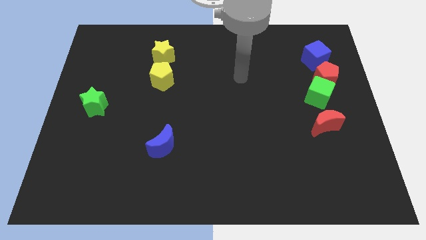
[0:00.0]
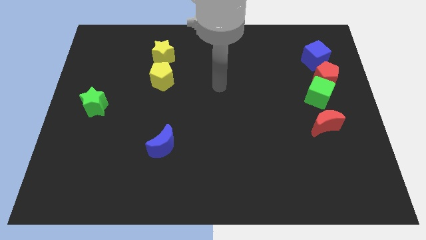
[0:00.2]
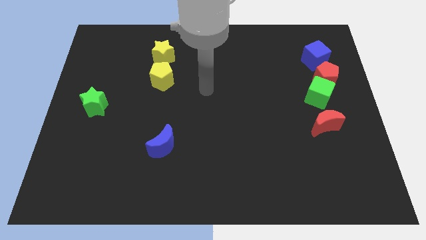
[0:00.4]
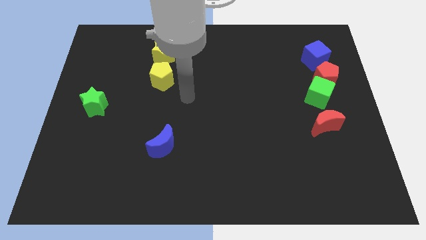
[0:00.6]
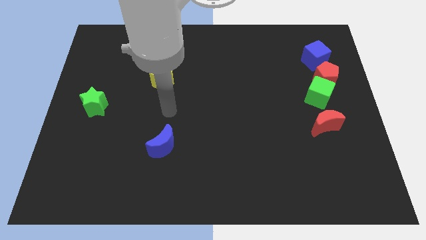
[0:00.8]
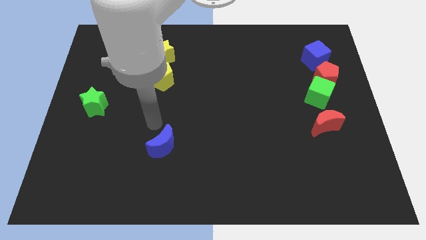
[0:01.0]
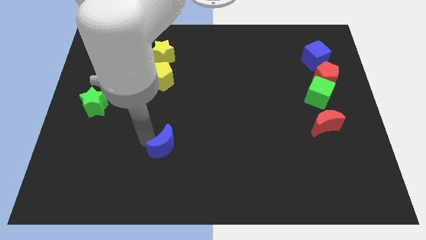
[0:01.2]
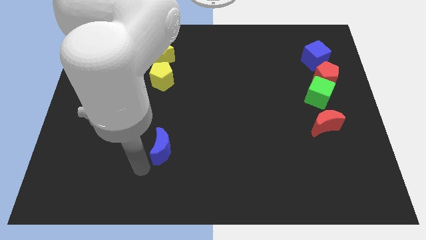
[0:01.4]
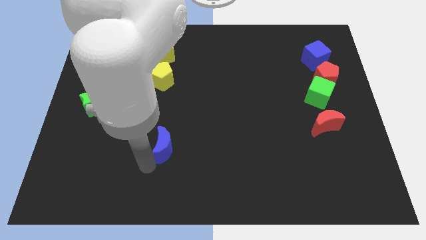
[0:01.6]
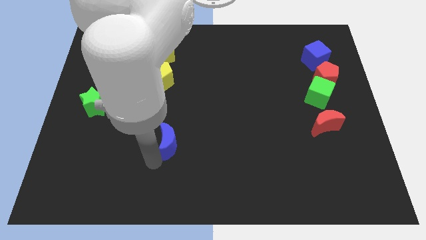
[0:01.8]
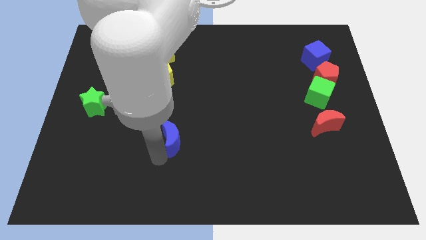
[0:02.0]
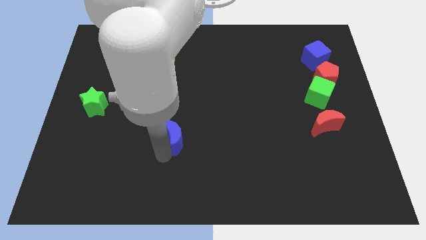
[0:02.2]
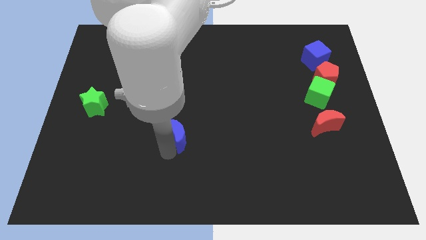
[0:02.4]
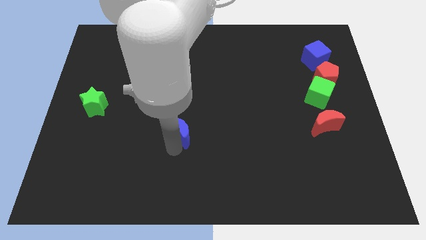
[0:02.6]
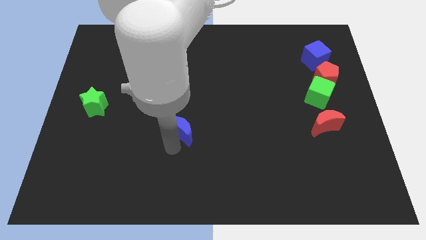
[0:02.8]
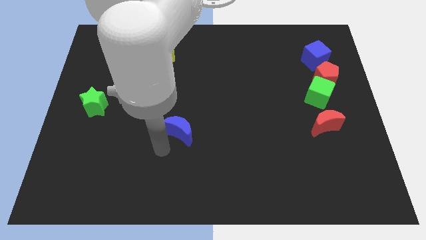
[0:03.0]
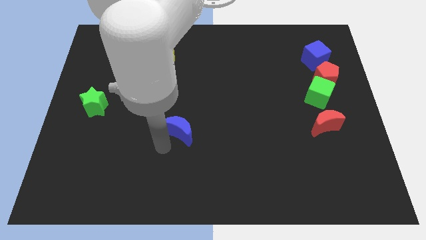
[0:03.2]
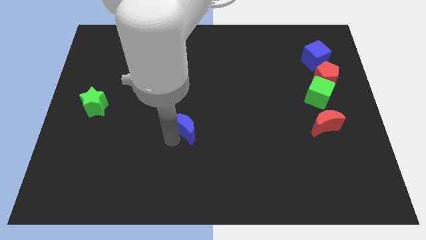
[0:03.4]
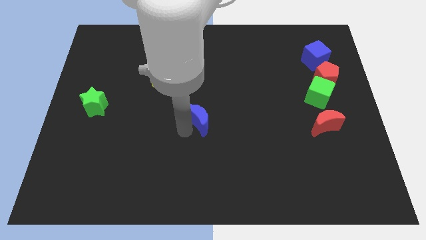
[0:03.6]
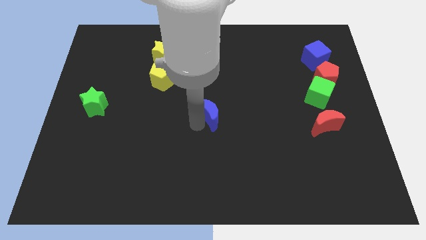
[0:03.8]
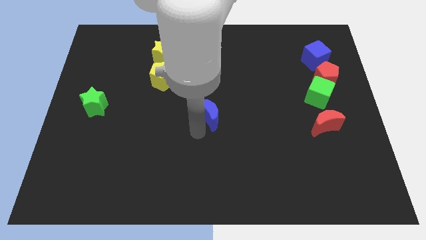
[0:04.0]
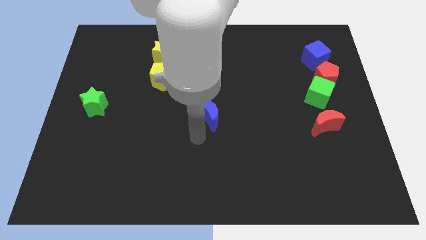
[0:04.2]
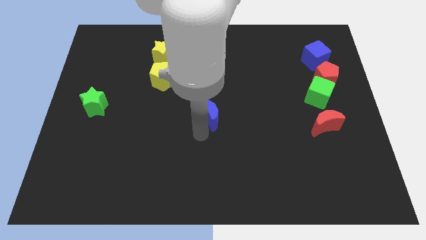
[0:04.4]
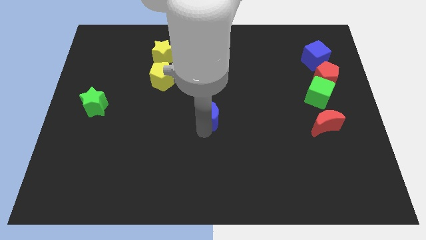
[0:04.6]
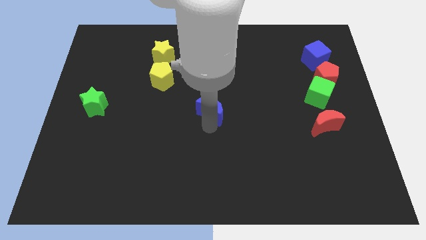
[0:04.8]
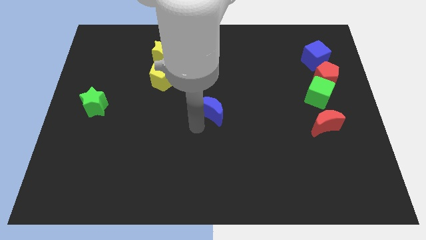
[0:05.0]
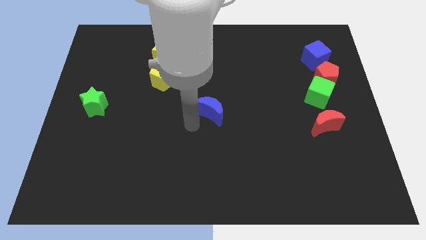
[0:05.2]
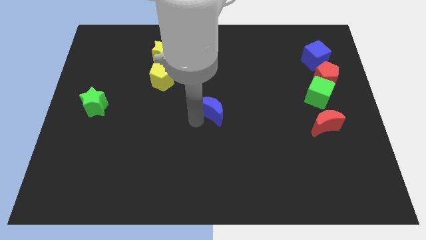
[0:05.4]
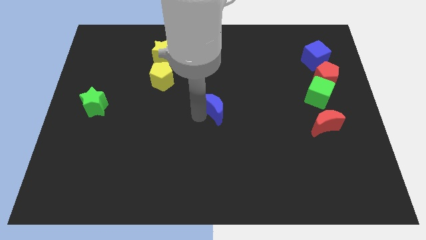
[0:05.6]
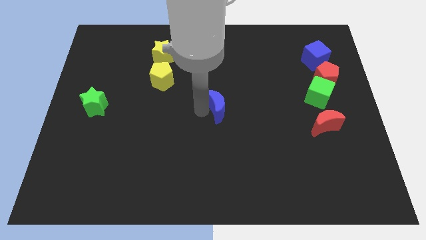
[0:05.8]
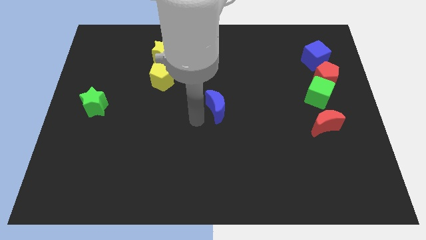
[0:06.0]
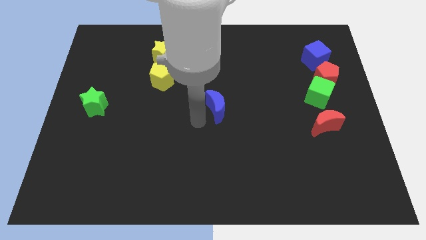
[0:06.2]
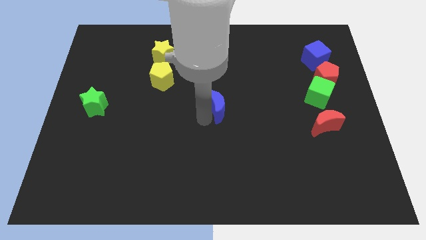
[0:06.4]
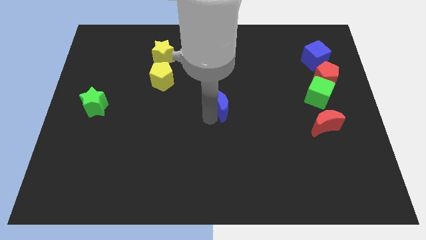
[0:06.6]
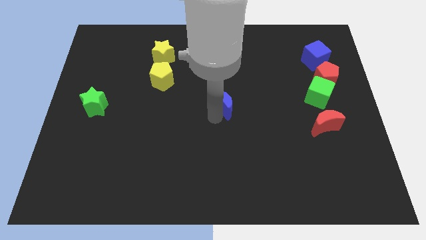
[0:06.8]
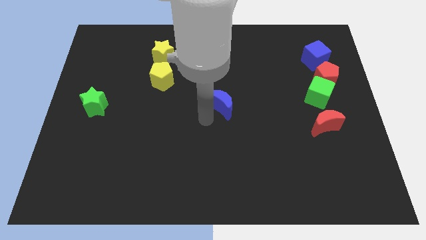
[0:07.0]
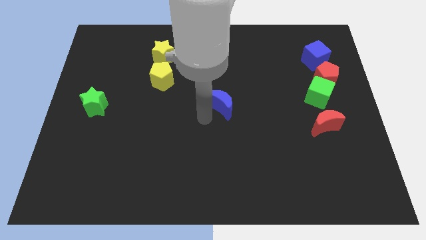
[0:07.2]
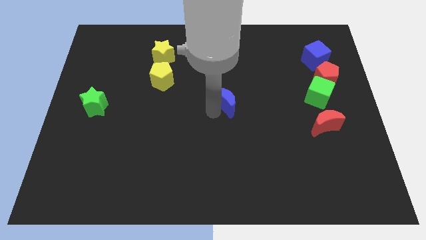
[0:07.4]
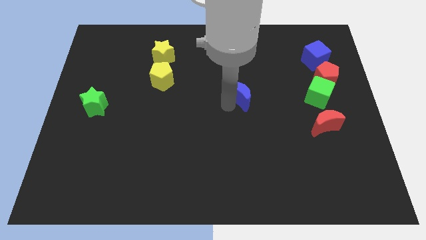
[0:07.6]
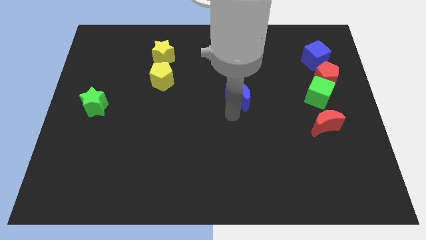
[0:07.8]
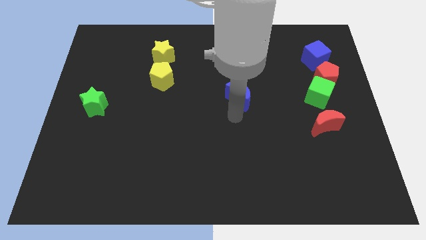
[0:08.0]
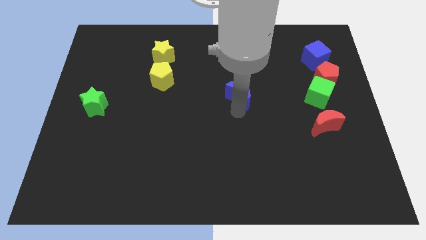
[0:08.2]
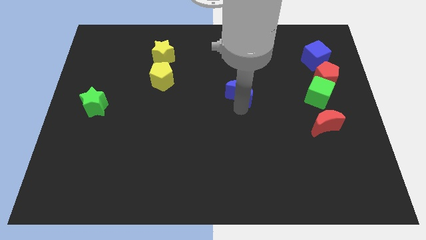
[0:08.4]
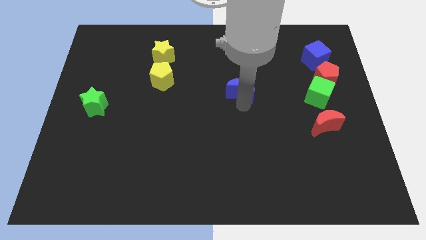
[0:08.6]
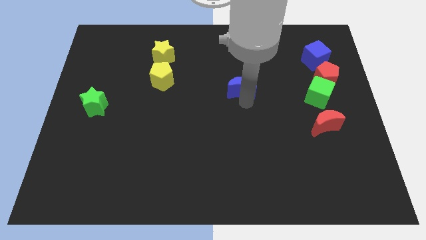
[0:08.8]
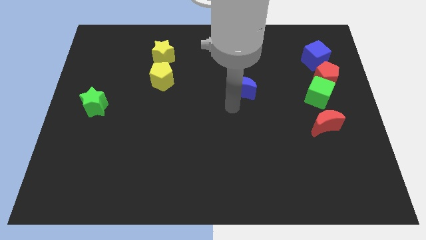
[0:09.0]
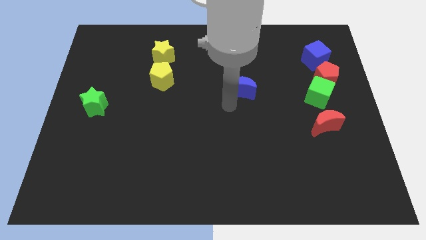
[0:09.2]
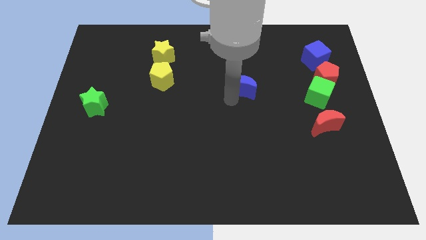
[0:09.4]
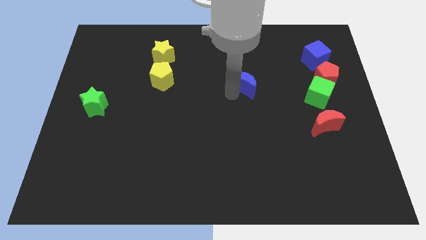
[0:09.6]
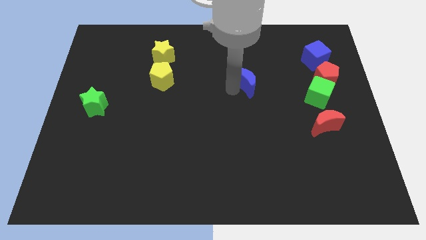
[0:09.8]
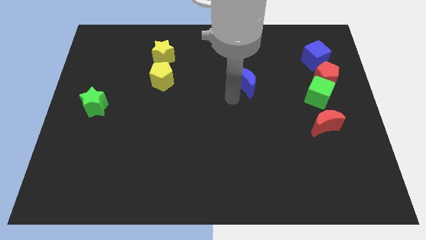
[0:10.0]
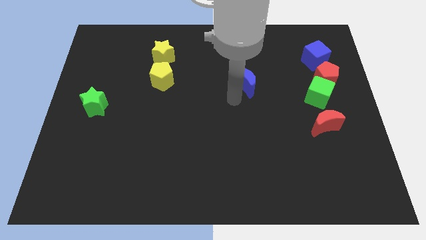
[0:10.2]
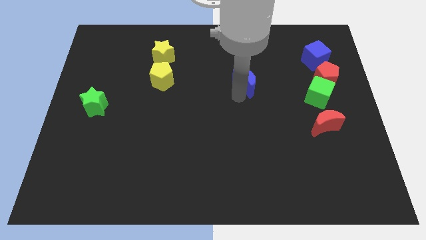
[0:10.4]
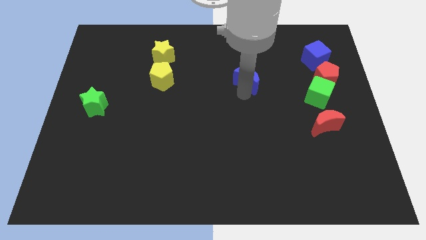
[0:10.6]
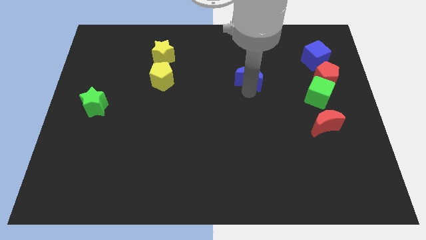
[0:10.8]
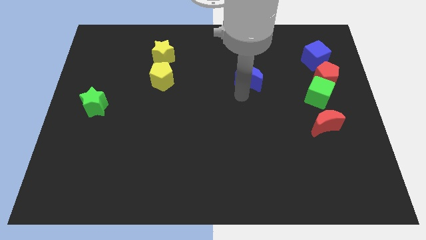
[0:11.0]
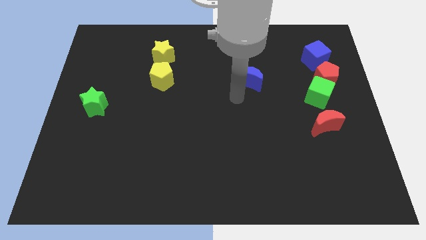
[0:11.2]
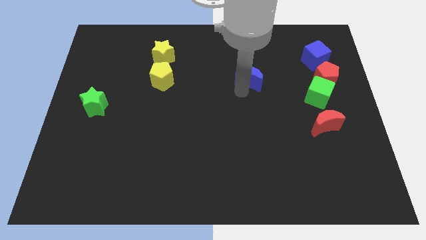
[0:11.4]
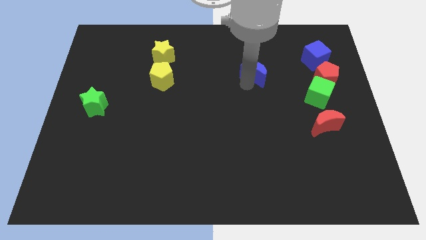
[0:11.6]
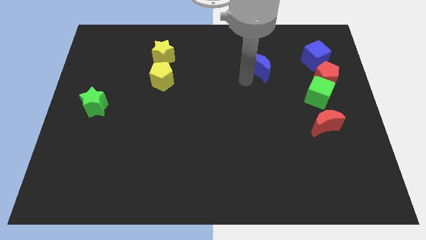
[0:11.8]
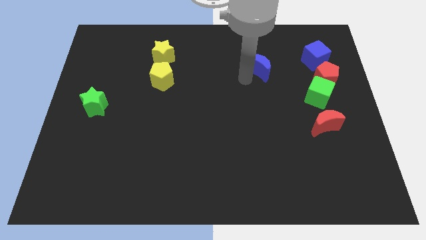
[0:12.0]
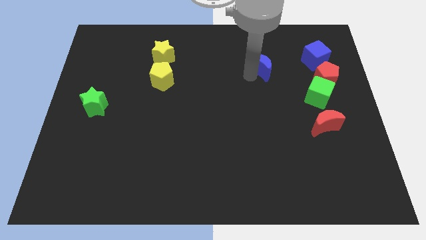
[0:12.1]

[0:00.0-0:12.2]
put the blue moon just left of the blue cube
